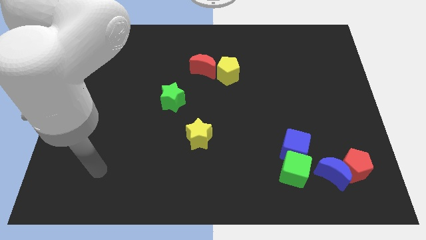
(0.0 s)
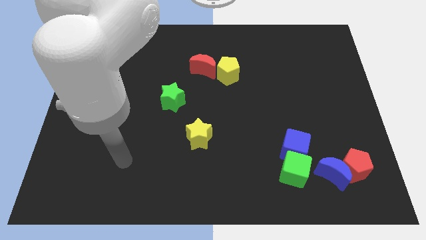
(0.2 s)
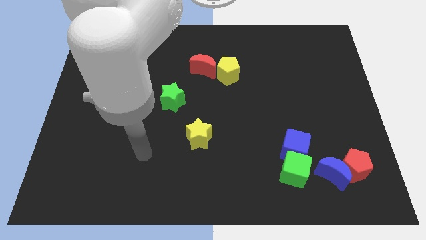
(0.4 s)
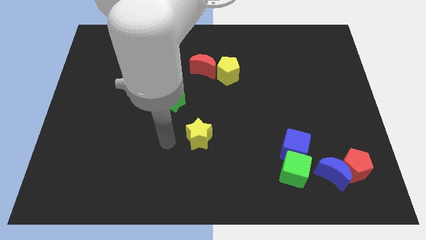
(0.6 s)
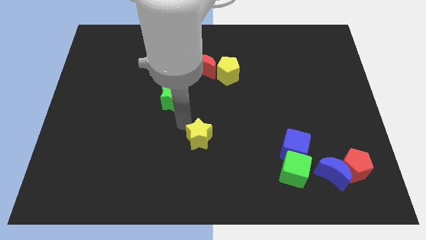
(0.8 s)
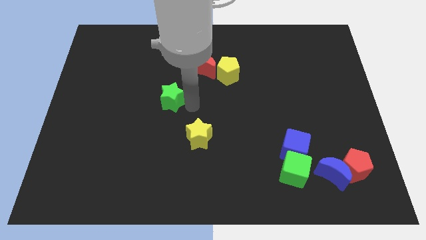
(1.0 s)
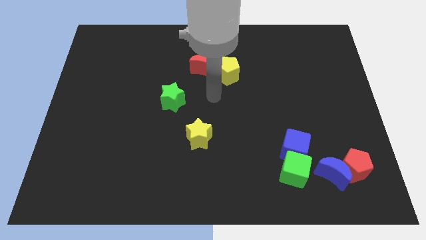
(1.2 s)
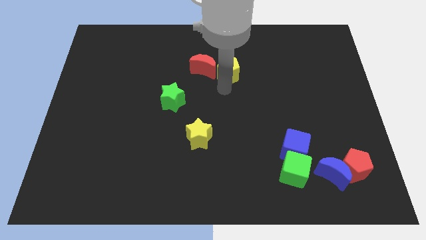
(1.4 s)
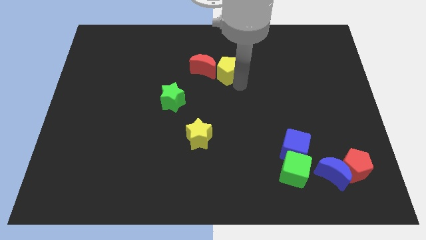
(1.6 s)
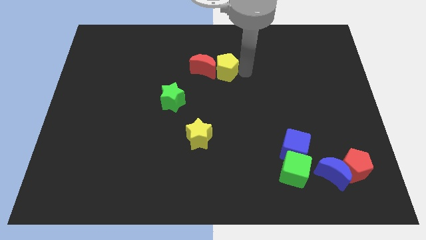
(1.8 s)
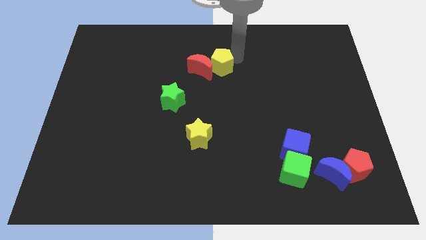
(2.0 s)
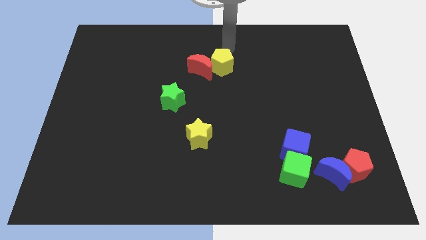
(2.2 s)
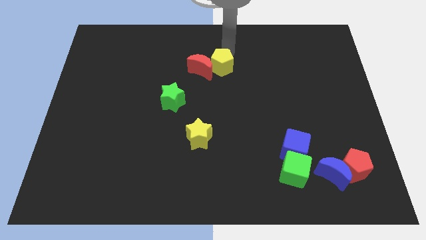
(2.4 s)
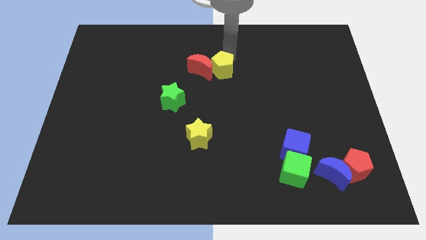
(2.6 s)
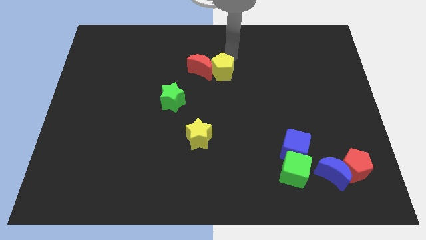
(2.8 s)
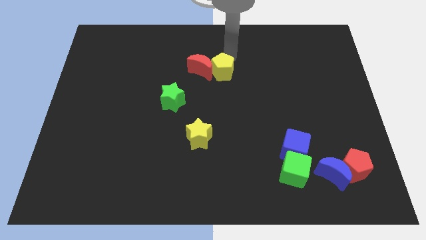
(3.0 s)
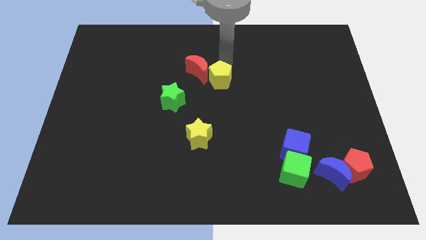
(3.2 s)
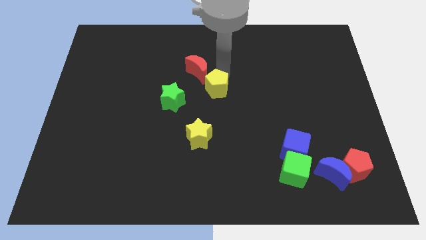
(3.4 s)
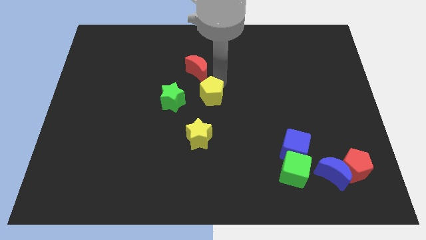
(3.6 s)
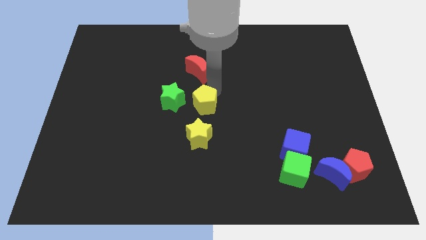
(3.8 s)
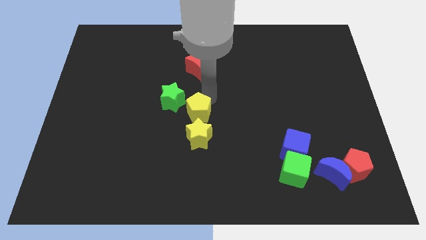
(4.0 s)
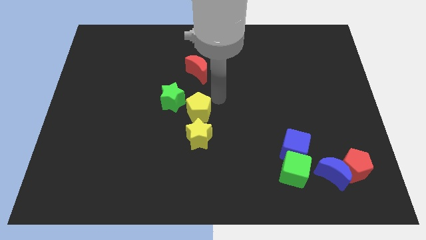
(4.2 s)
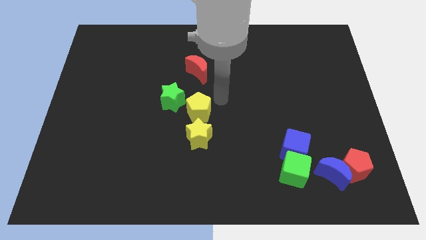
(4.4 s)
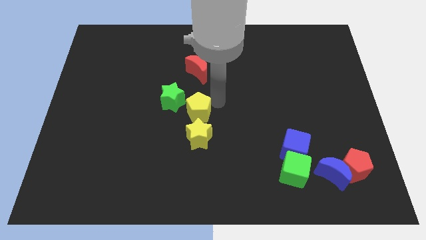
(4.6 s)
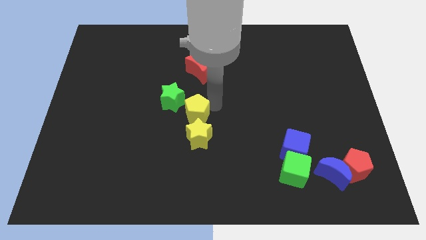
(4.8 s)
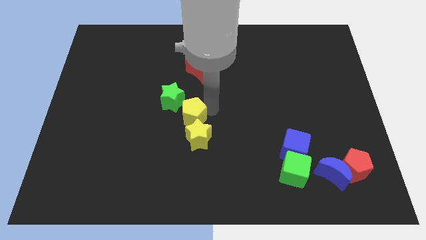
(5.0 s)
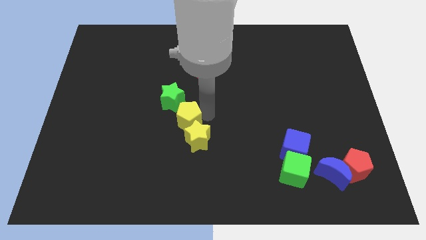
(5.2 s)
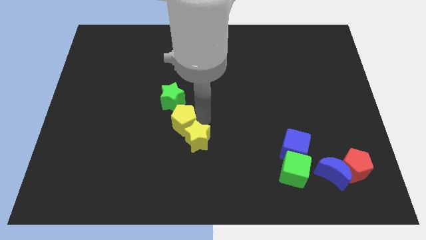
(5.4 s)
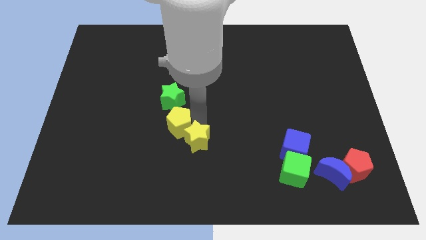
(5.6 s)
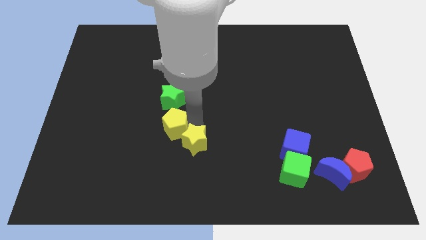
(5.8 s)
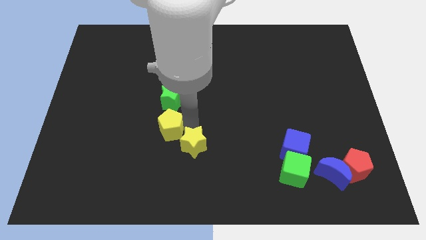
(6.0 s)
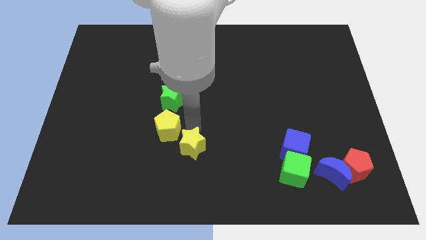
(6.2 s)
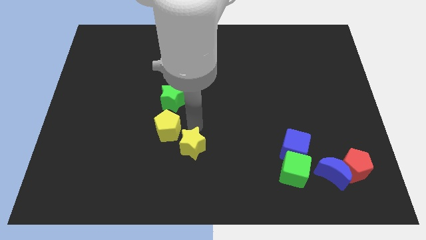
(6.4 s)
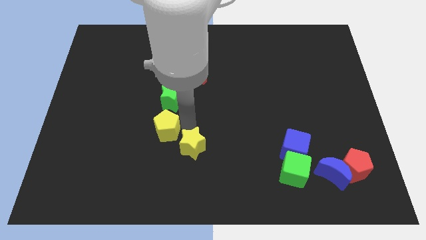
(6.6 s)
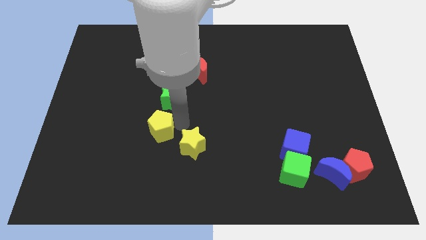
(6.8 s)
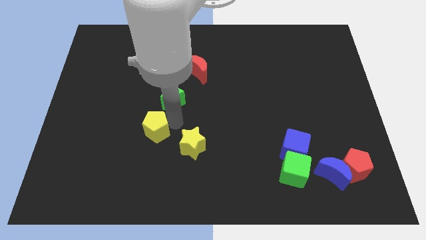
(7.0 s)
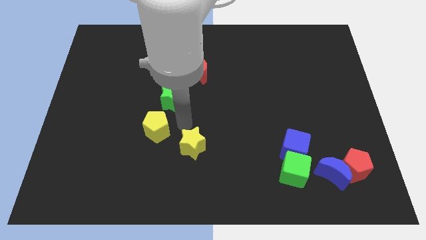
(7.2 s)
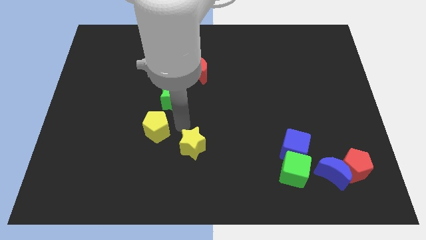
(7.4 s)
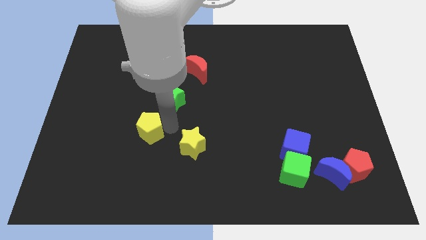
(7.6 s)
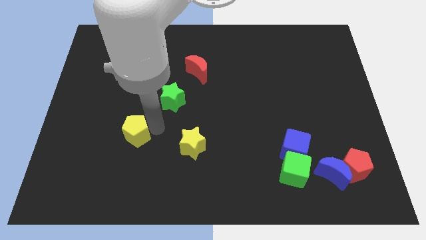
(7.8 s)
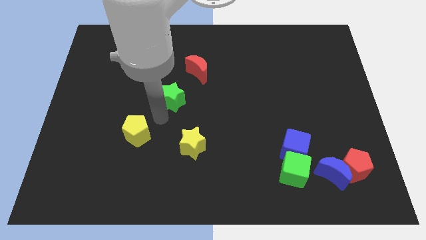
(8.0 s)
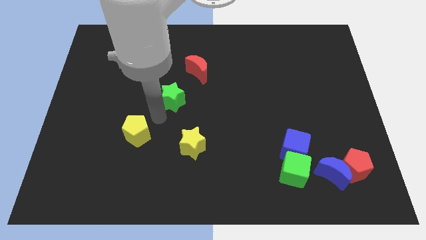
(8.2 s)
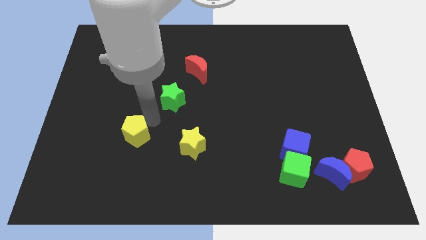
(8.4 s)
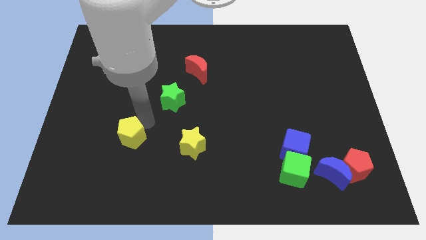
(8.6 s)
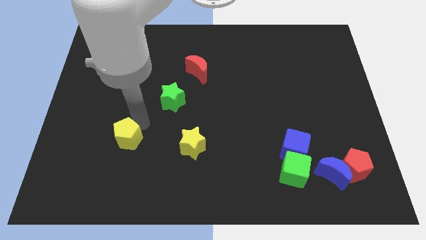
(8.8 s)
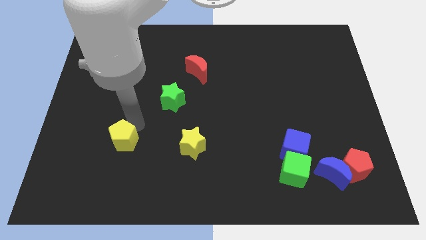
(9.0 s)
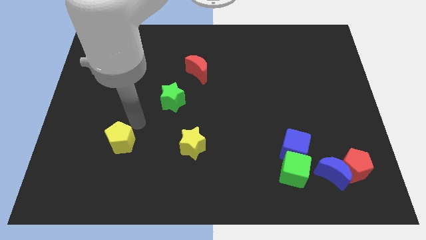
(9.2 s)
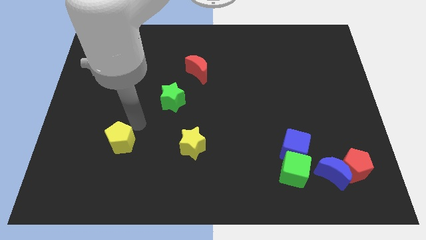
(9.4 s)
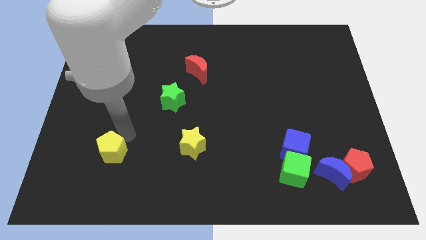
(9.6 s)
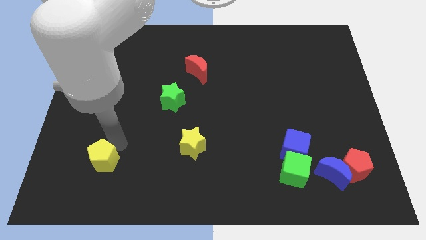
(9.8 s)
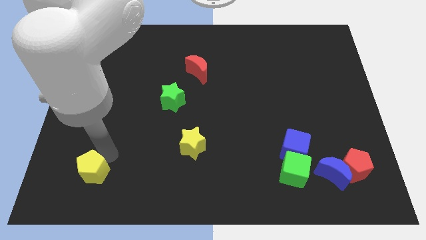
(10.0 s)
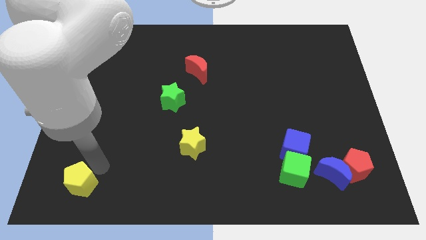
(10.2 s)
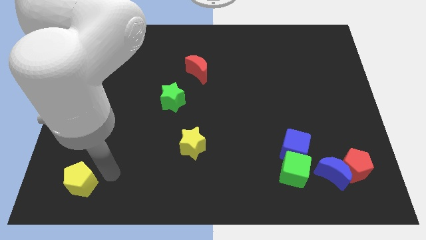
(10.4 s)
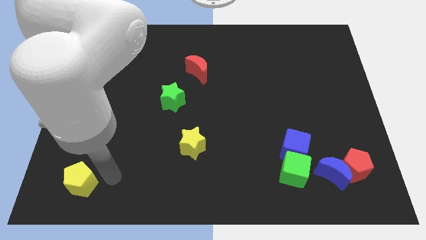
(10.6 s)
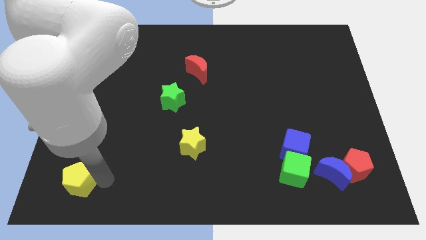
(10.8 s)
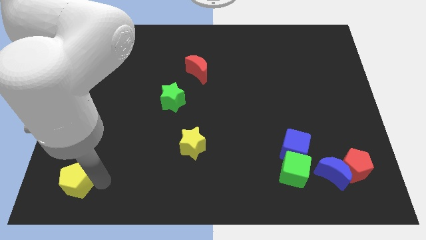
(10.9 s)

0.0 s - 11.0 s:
push the yellow pentagon to the bottom left corner

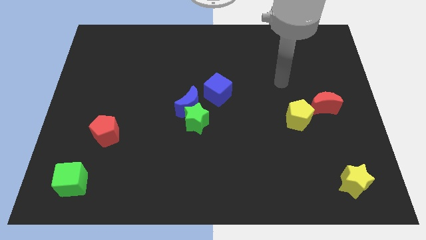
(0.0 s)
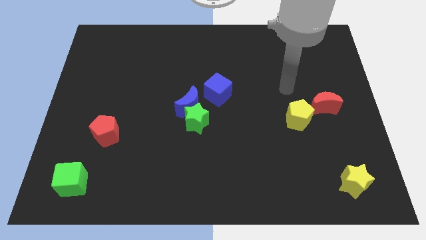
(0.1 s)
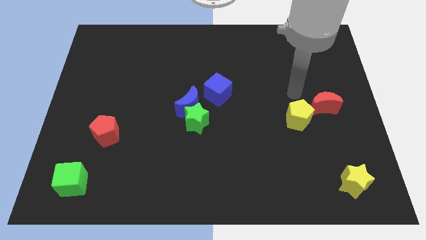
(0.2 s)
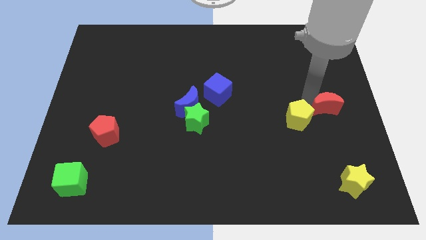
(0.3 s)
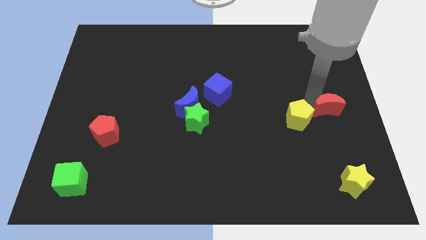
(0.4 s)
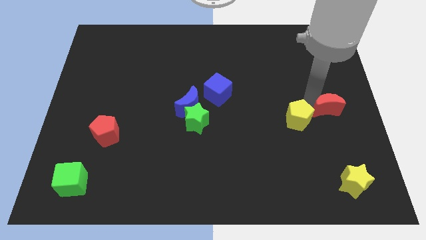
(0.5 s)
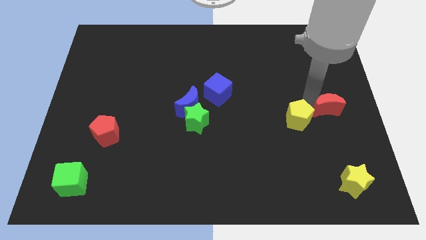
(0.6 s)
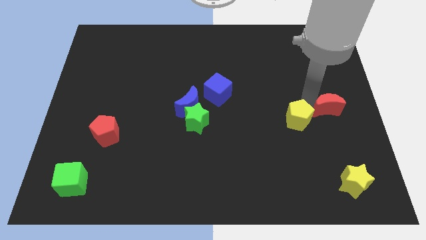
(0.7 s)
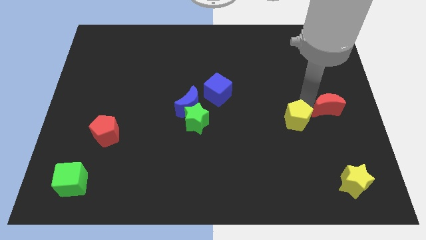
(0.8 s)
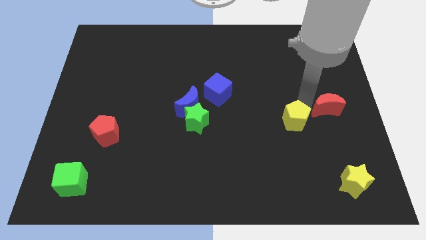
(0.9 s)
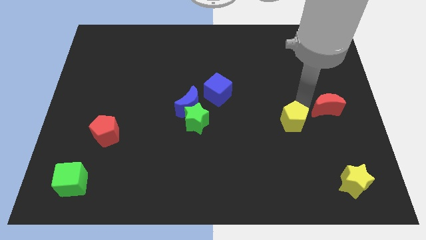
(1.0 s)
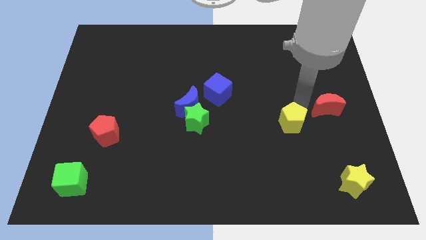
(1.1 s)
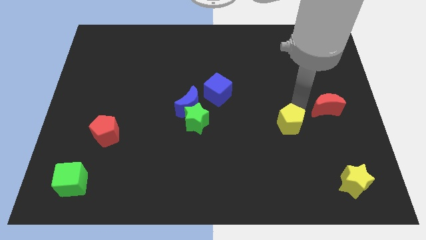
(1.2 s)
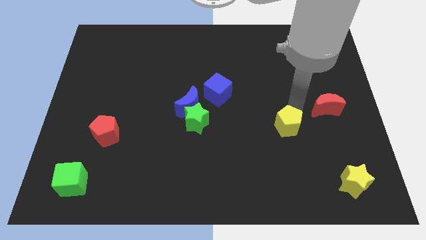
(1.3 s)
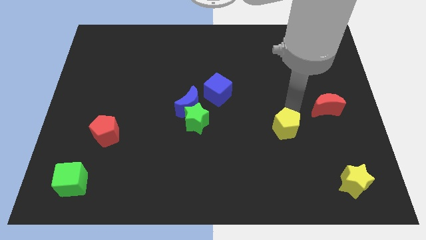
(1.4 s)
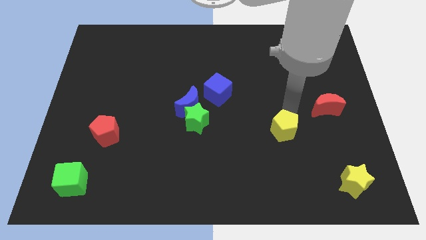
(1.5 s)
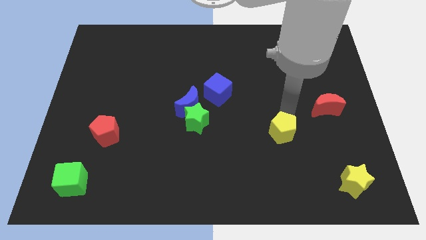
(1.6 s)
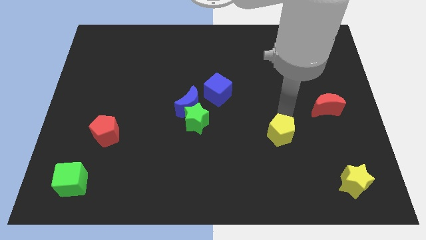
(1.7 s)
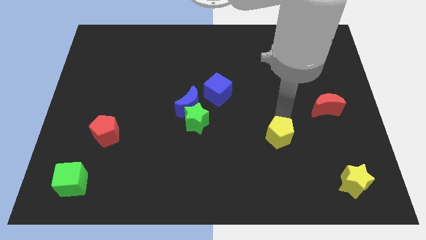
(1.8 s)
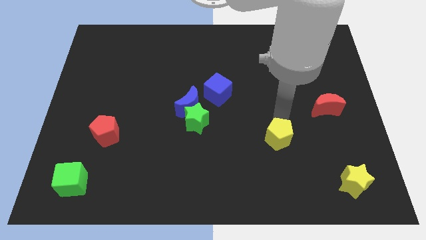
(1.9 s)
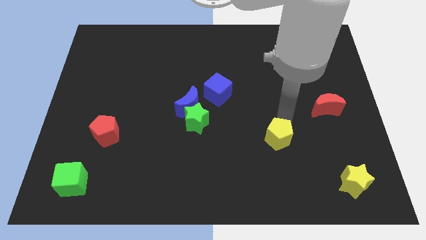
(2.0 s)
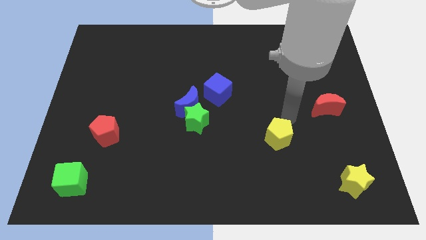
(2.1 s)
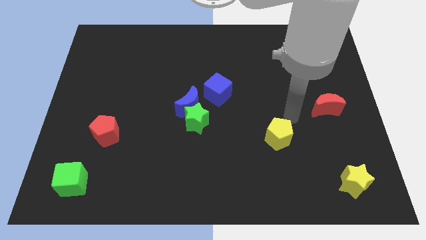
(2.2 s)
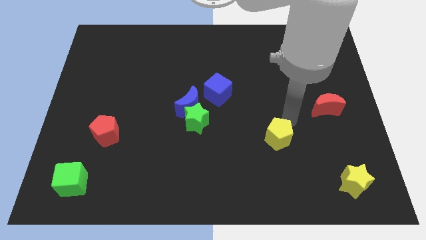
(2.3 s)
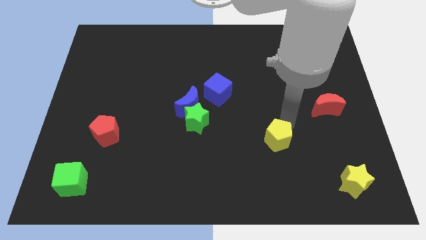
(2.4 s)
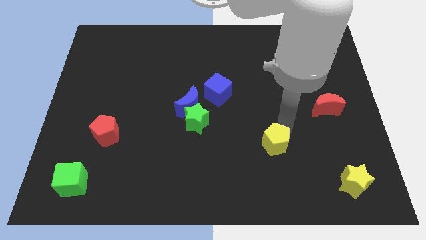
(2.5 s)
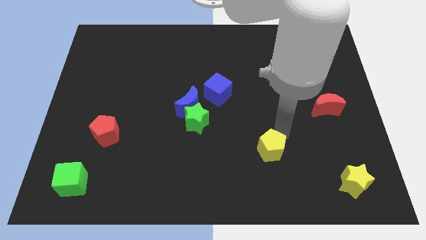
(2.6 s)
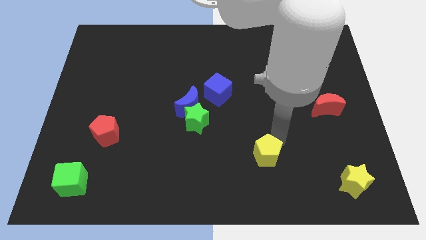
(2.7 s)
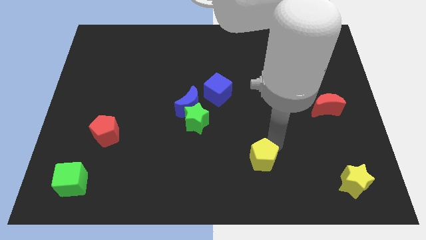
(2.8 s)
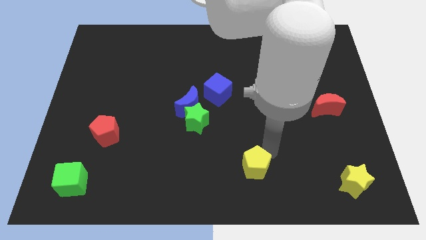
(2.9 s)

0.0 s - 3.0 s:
move the yellow pentagon to the bottom
